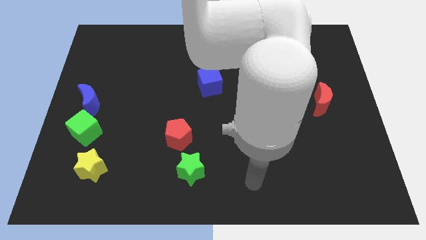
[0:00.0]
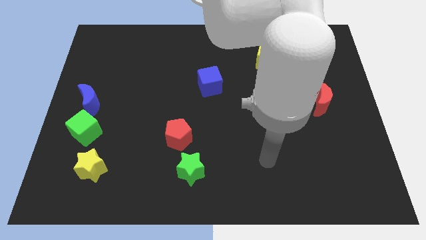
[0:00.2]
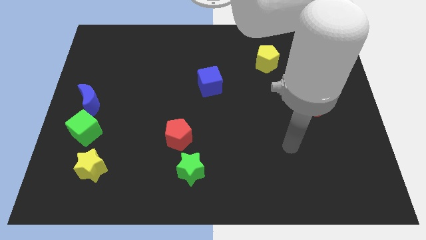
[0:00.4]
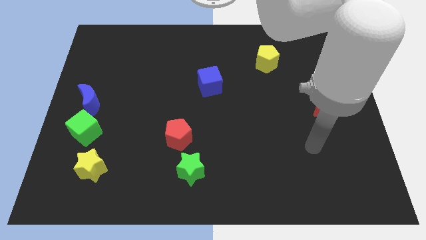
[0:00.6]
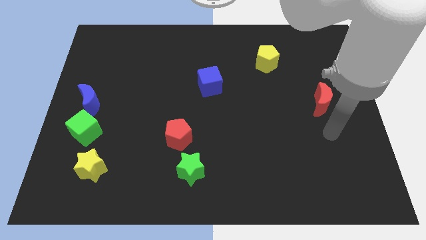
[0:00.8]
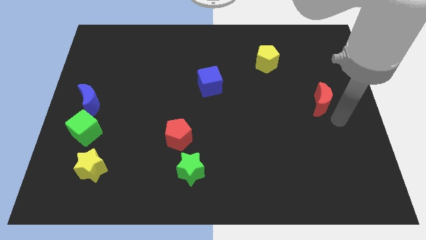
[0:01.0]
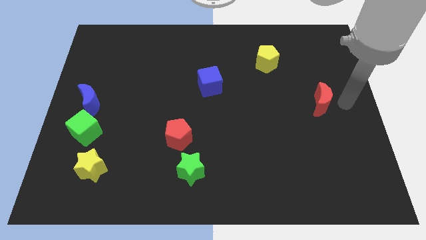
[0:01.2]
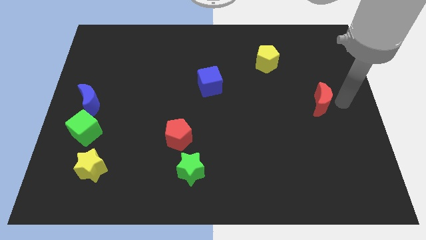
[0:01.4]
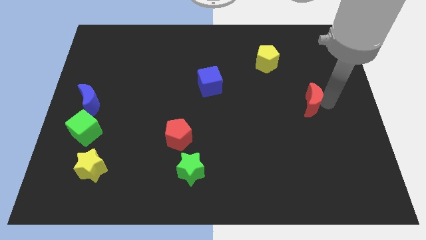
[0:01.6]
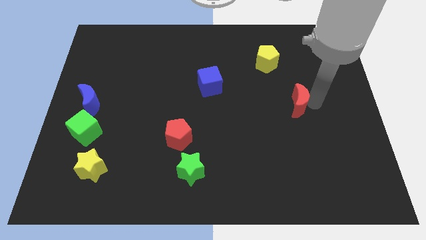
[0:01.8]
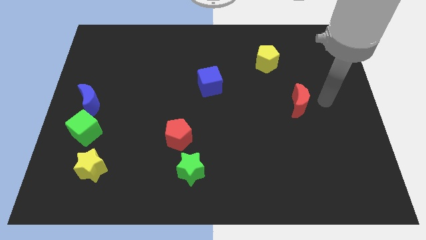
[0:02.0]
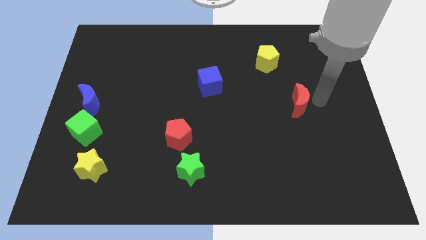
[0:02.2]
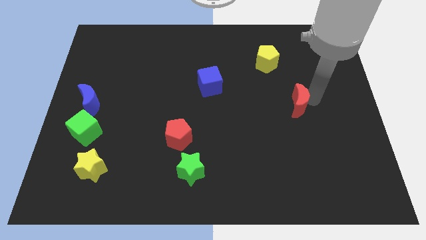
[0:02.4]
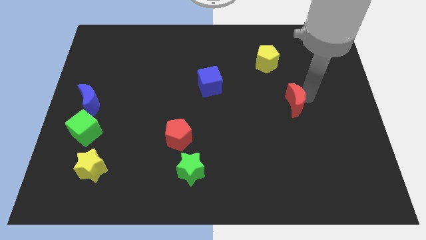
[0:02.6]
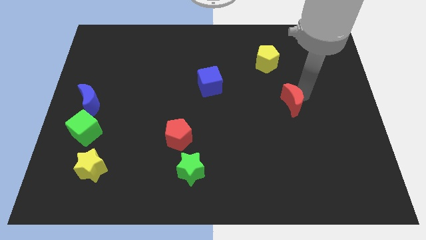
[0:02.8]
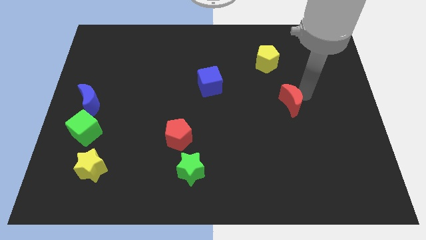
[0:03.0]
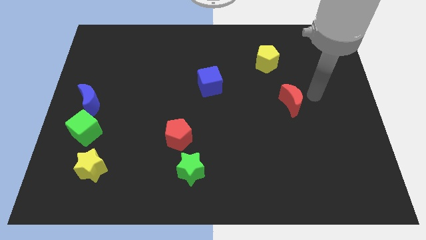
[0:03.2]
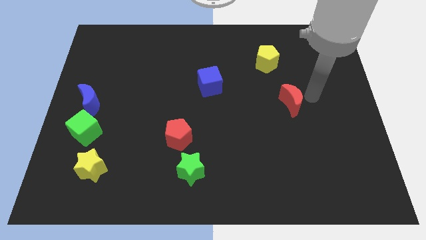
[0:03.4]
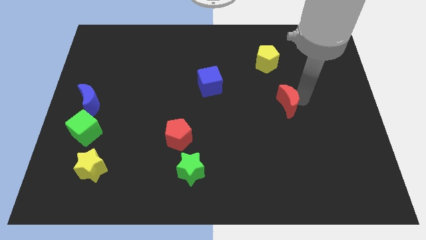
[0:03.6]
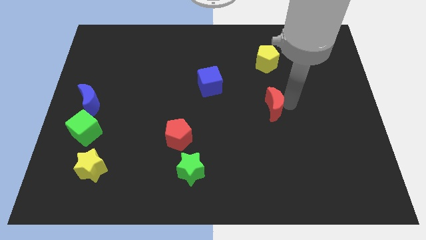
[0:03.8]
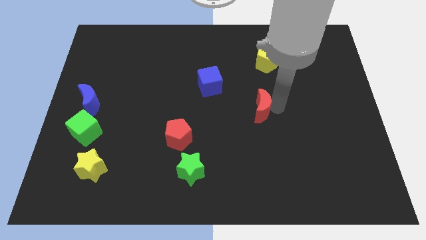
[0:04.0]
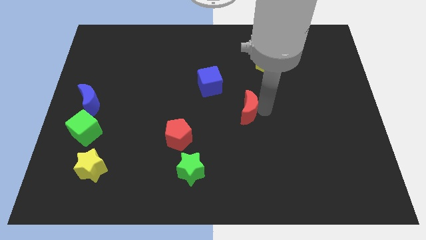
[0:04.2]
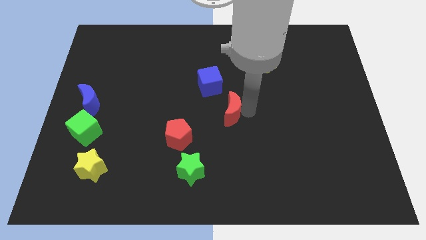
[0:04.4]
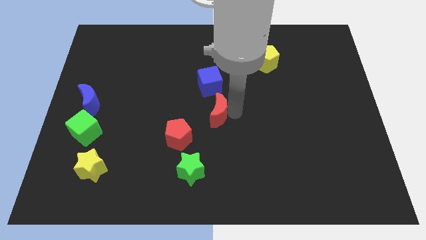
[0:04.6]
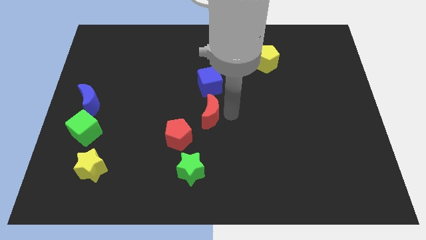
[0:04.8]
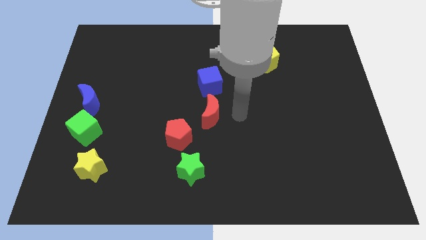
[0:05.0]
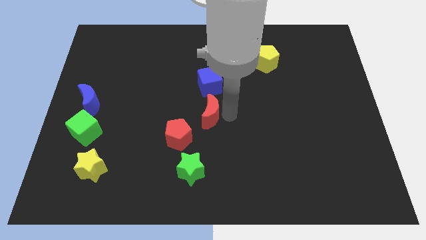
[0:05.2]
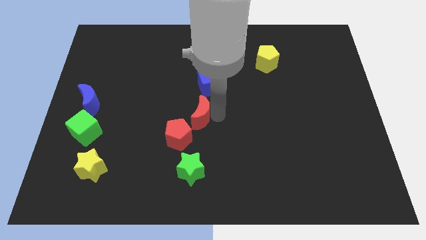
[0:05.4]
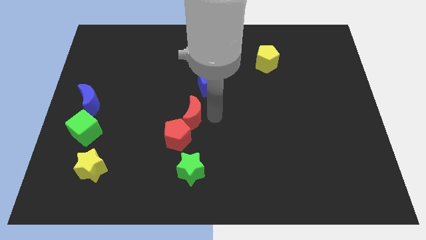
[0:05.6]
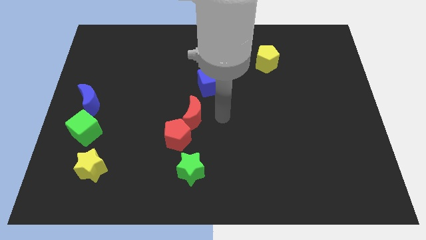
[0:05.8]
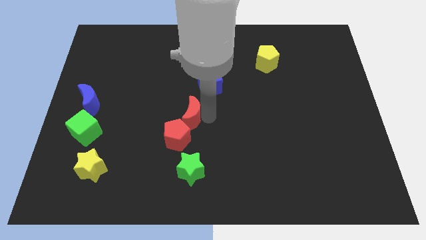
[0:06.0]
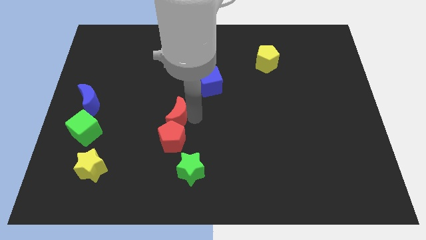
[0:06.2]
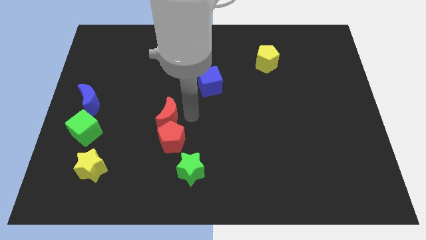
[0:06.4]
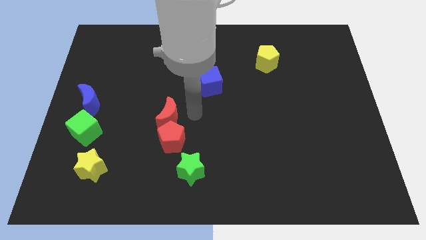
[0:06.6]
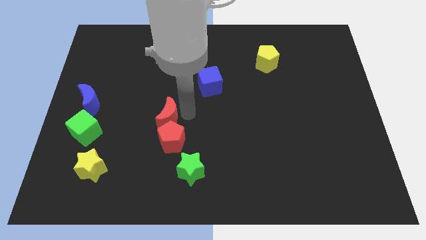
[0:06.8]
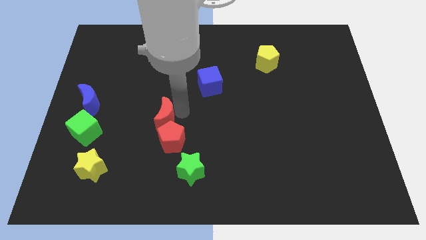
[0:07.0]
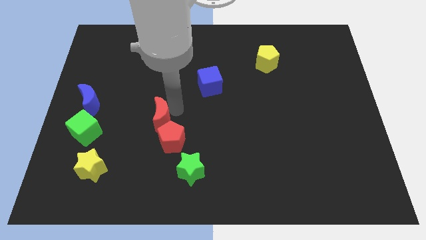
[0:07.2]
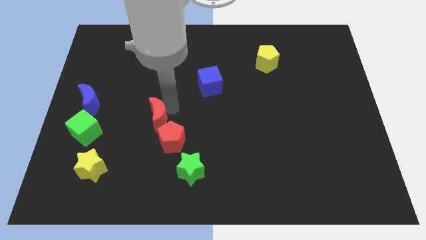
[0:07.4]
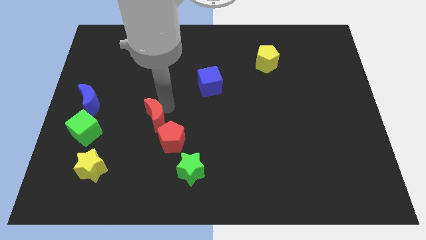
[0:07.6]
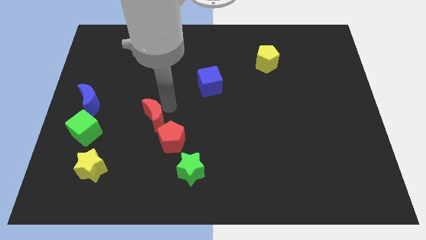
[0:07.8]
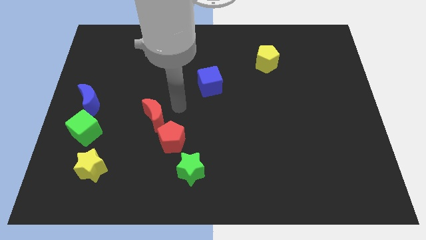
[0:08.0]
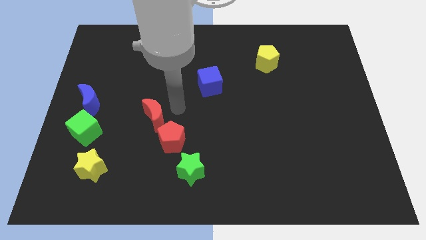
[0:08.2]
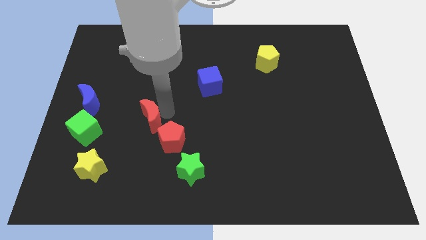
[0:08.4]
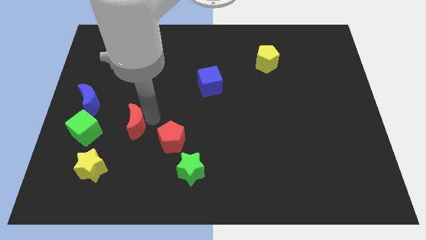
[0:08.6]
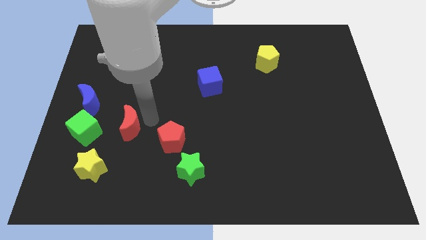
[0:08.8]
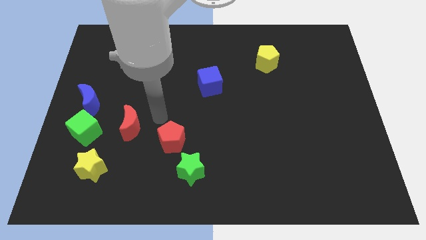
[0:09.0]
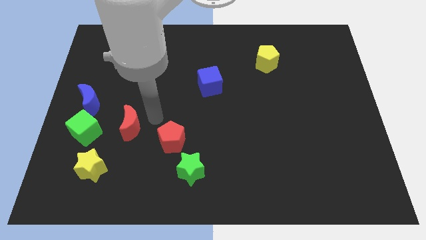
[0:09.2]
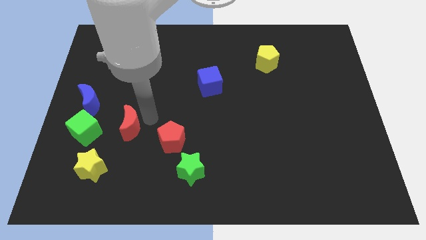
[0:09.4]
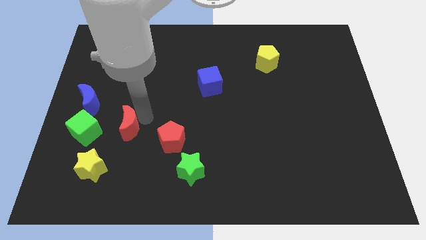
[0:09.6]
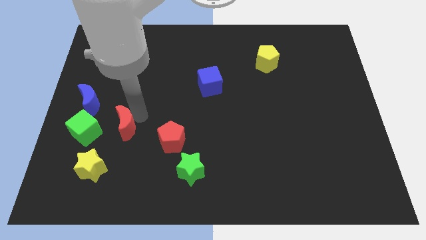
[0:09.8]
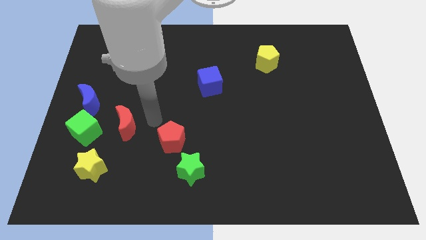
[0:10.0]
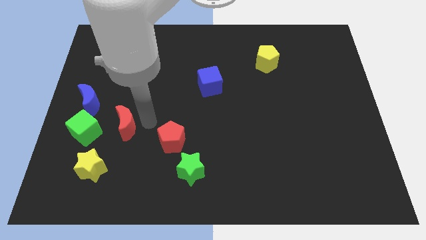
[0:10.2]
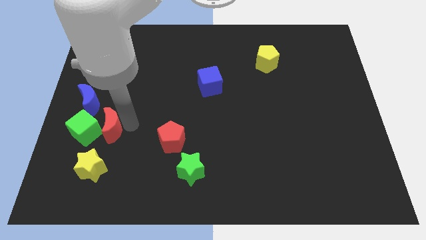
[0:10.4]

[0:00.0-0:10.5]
push the red moon to the green cube

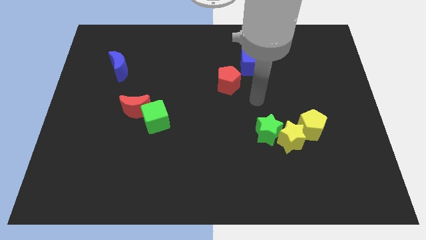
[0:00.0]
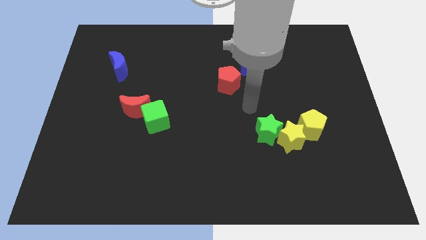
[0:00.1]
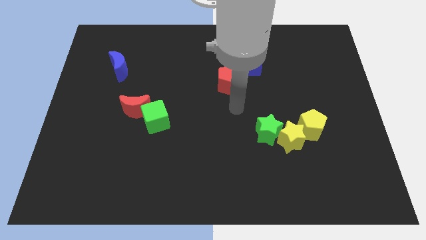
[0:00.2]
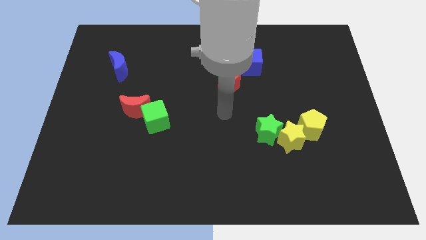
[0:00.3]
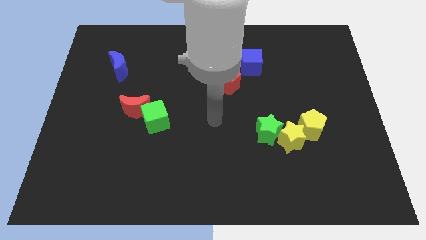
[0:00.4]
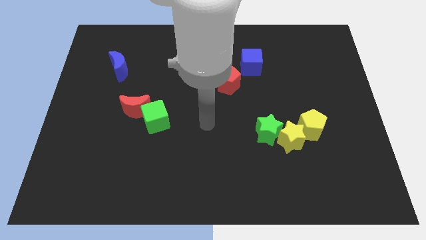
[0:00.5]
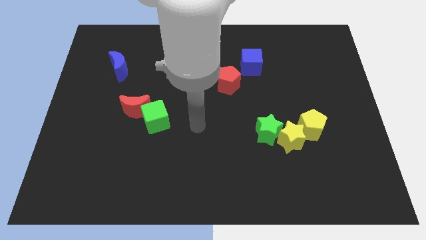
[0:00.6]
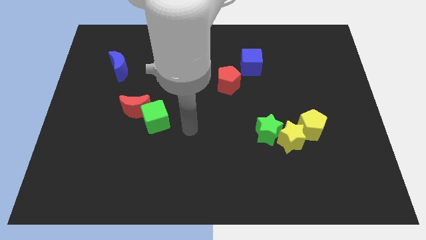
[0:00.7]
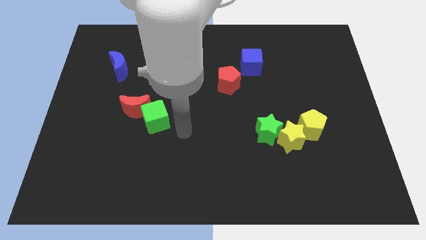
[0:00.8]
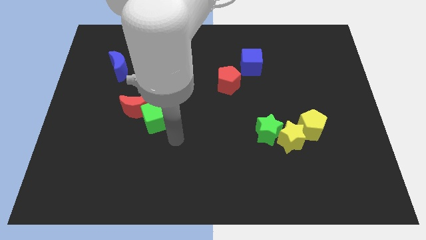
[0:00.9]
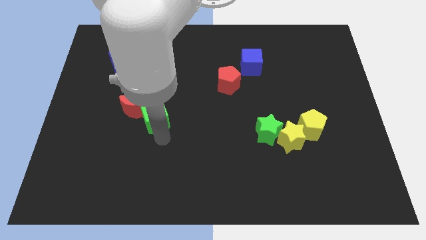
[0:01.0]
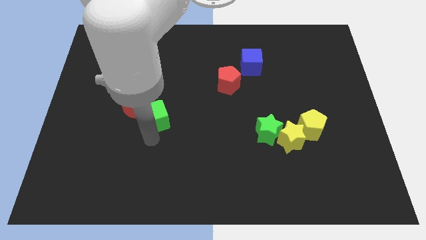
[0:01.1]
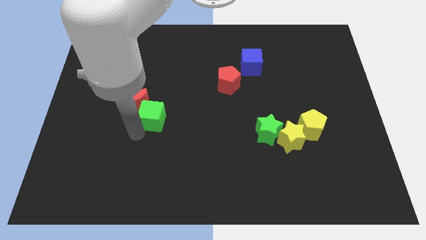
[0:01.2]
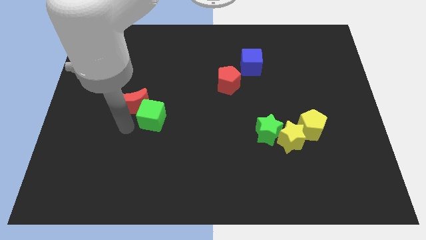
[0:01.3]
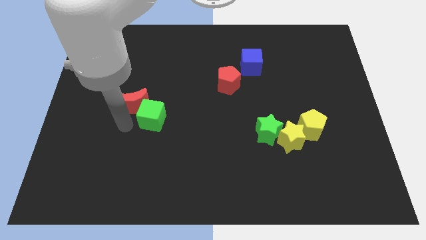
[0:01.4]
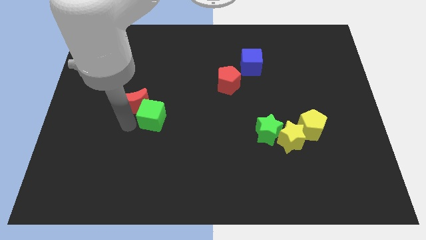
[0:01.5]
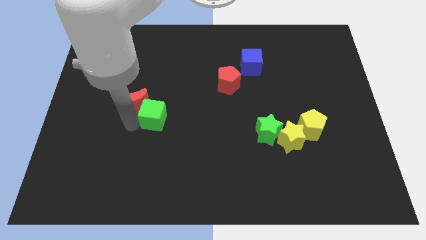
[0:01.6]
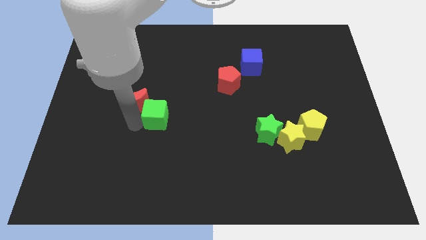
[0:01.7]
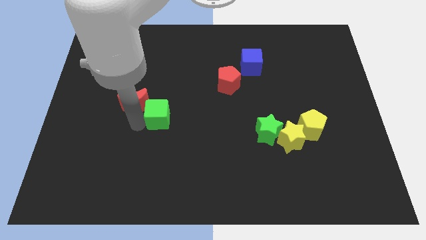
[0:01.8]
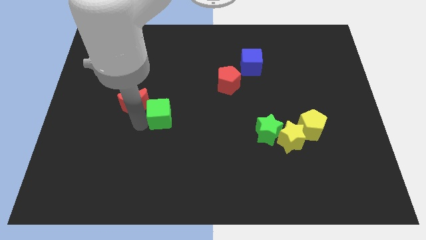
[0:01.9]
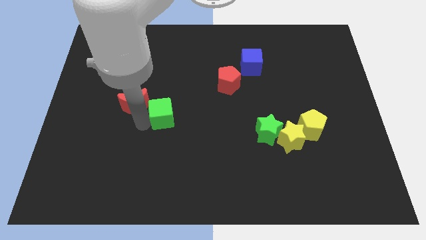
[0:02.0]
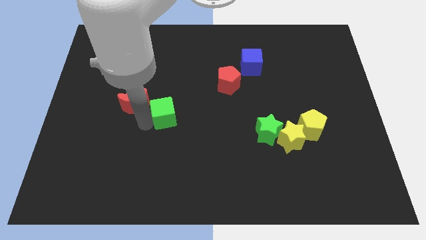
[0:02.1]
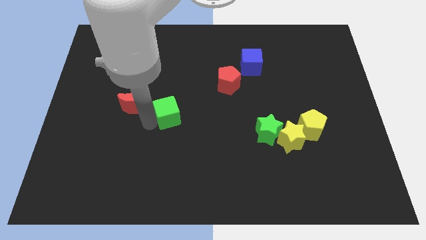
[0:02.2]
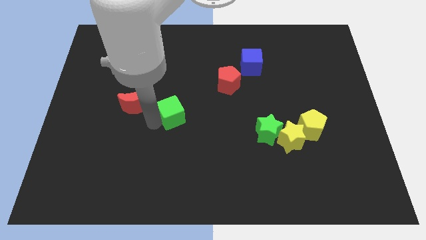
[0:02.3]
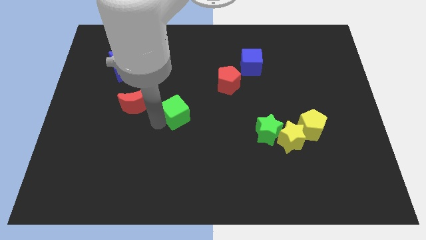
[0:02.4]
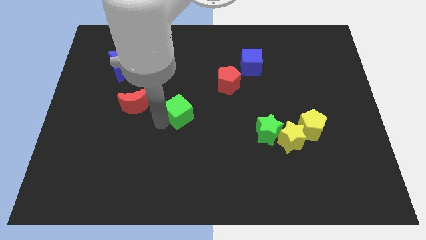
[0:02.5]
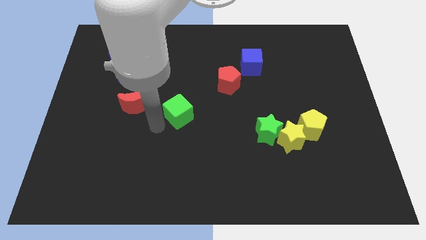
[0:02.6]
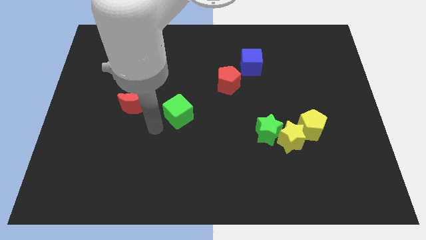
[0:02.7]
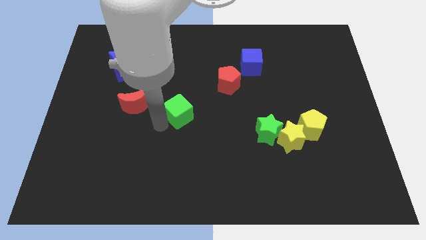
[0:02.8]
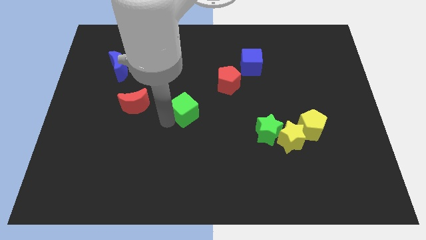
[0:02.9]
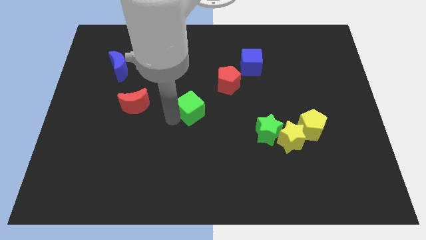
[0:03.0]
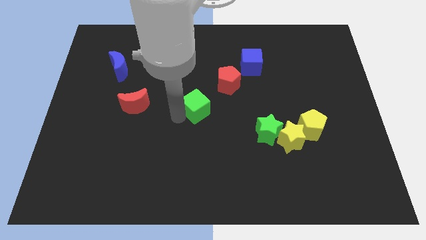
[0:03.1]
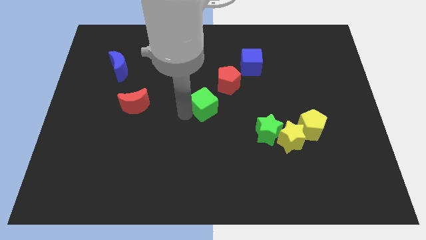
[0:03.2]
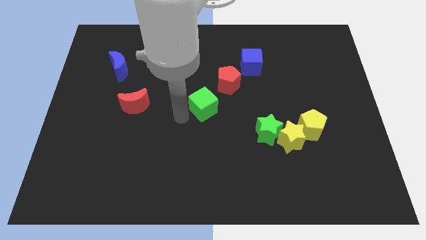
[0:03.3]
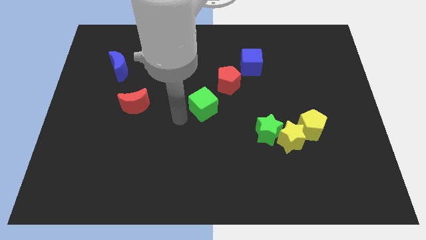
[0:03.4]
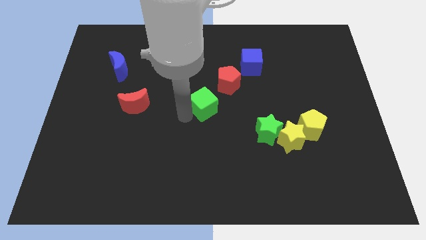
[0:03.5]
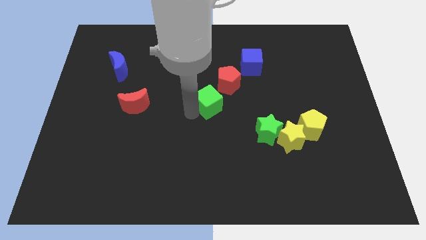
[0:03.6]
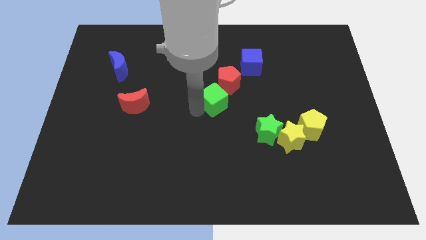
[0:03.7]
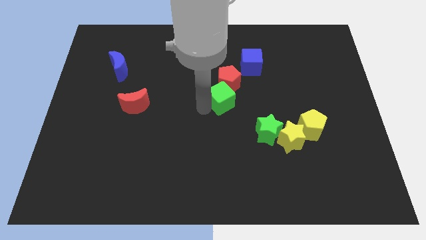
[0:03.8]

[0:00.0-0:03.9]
put the green cube towards the red pentagon
